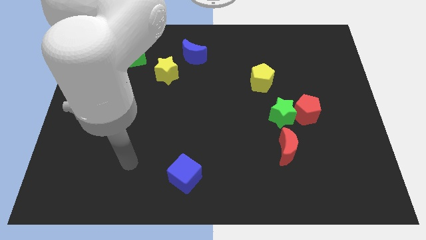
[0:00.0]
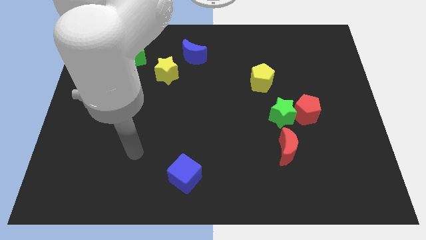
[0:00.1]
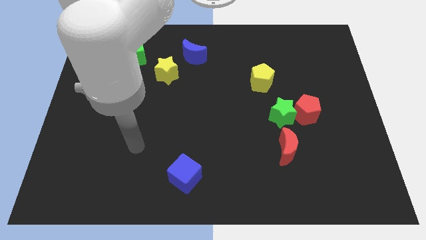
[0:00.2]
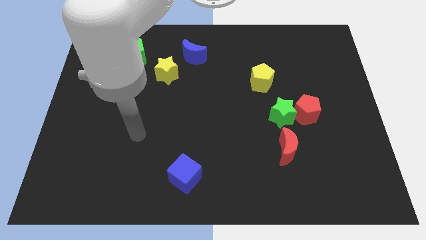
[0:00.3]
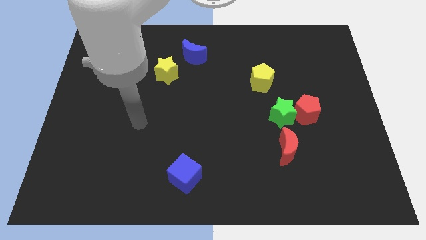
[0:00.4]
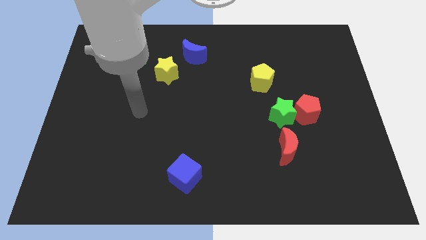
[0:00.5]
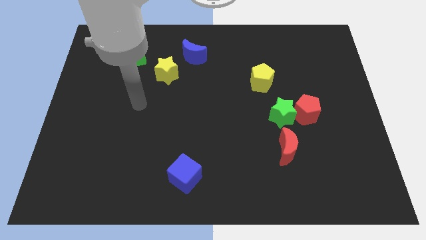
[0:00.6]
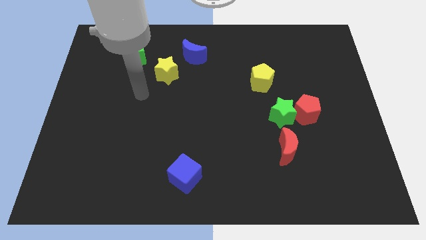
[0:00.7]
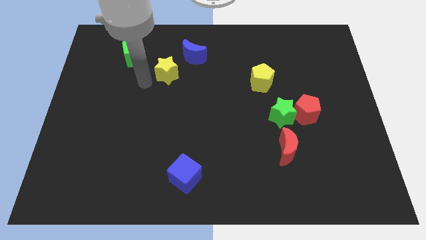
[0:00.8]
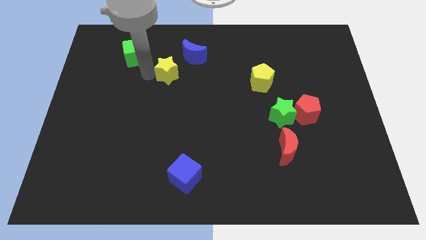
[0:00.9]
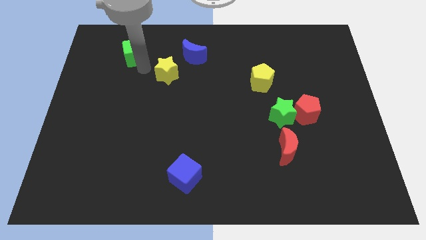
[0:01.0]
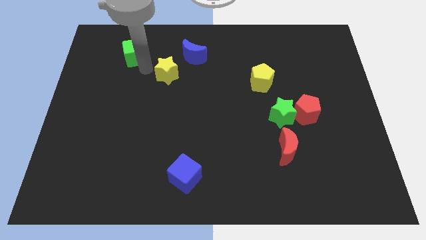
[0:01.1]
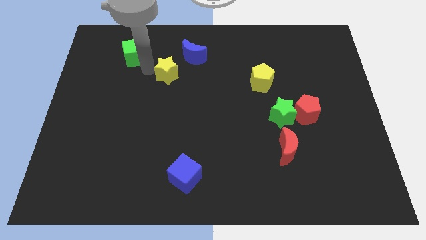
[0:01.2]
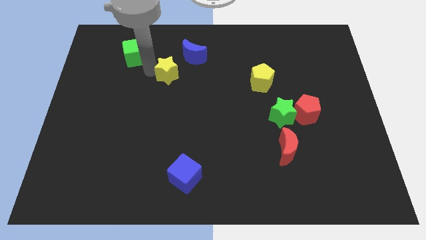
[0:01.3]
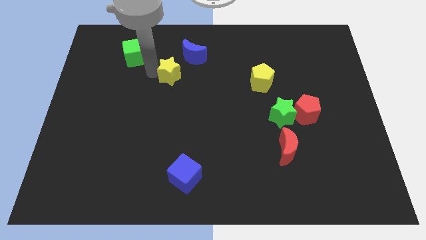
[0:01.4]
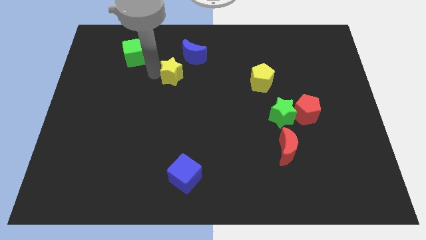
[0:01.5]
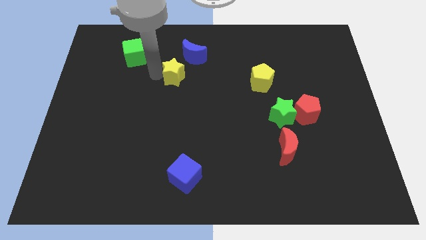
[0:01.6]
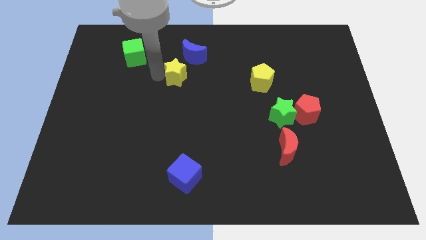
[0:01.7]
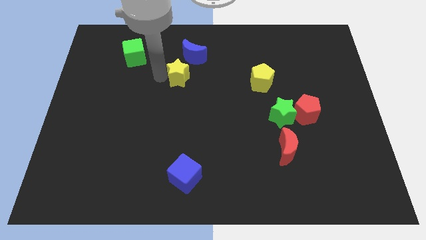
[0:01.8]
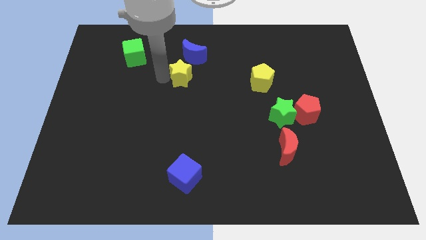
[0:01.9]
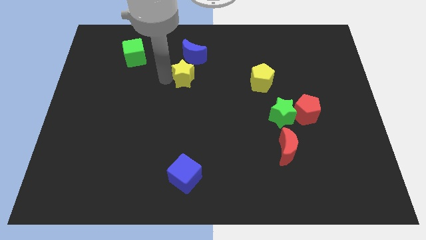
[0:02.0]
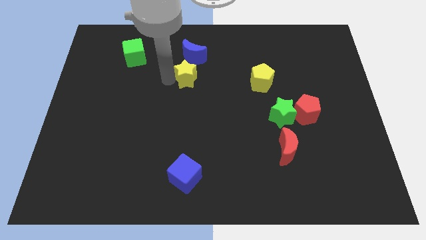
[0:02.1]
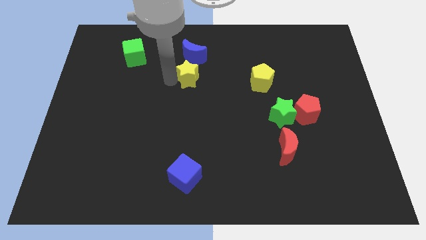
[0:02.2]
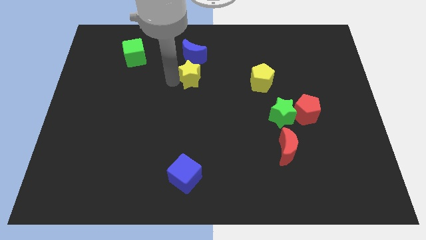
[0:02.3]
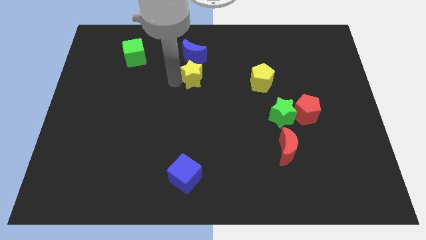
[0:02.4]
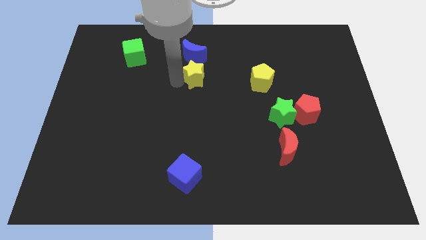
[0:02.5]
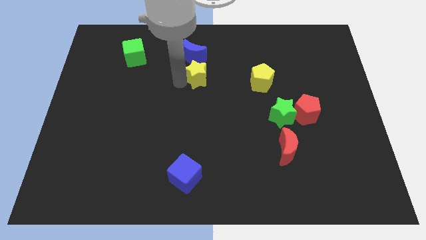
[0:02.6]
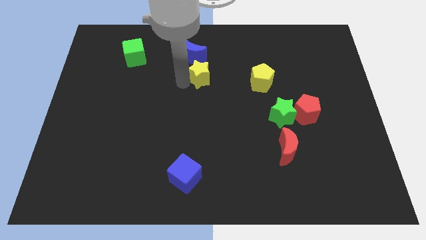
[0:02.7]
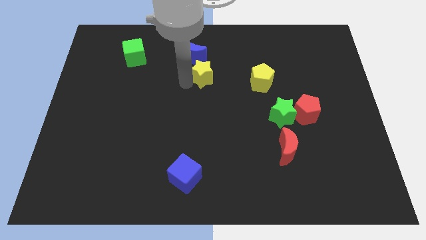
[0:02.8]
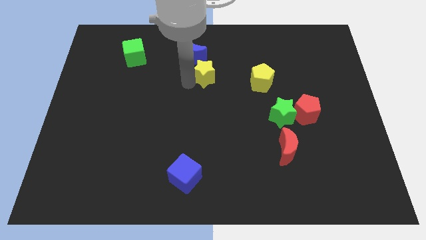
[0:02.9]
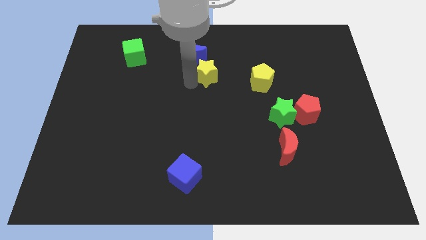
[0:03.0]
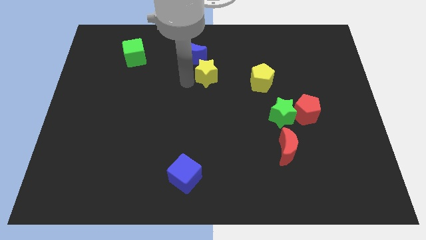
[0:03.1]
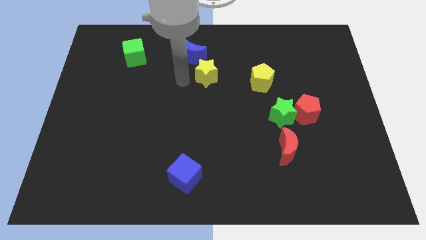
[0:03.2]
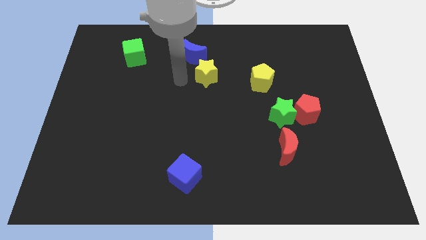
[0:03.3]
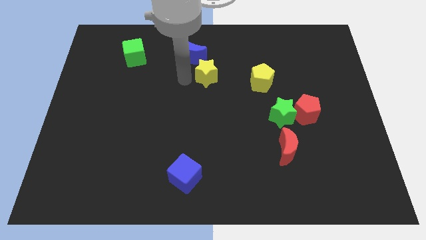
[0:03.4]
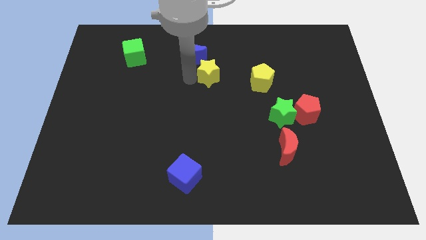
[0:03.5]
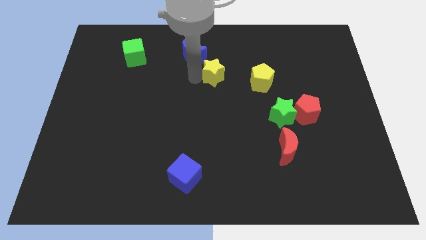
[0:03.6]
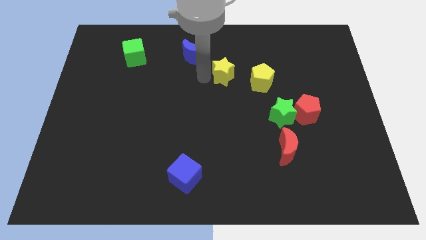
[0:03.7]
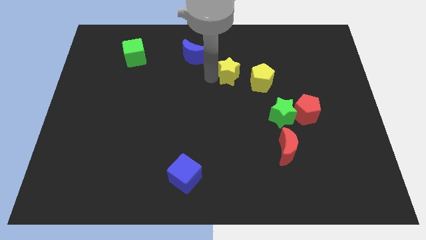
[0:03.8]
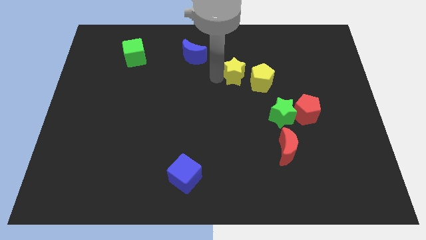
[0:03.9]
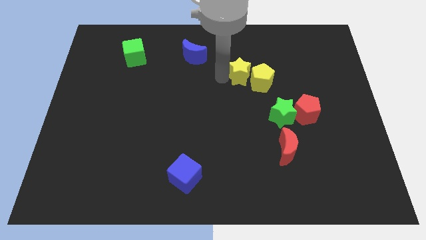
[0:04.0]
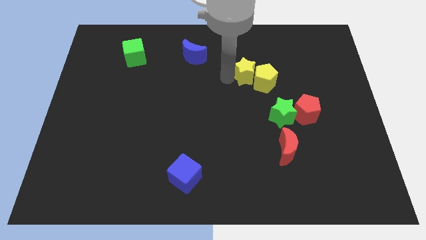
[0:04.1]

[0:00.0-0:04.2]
push the yellow star right

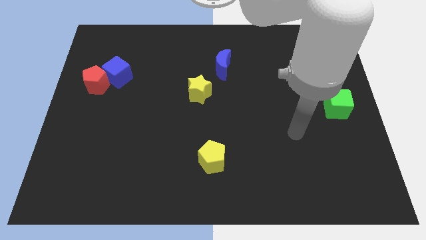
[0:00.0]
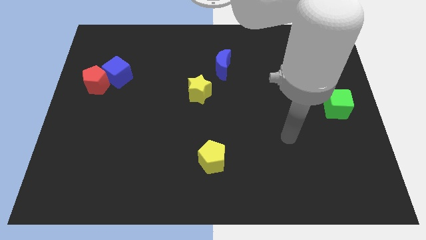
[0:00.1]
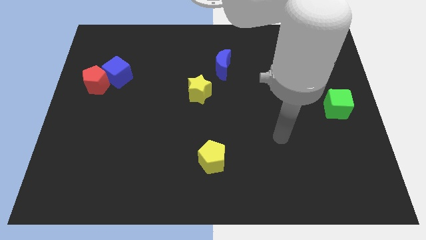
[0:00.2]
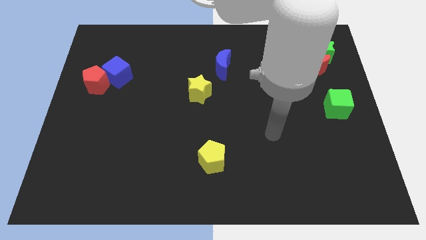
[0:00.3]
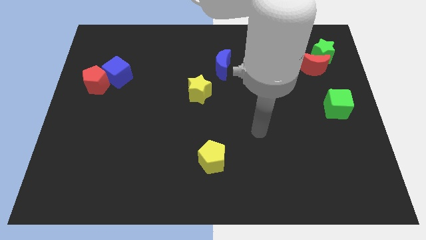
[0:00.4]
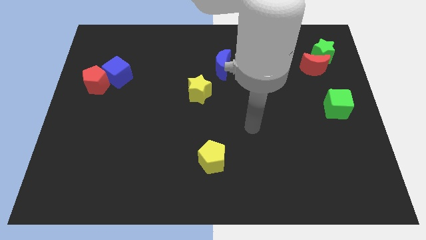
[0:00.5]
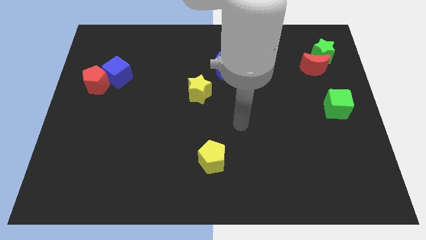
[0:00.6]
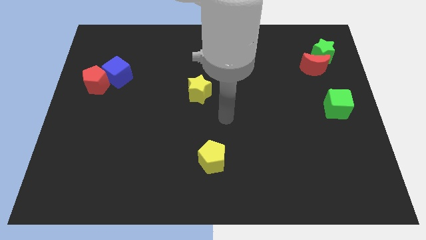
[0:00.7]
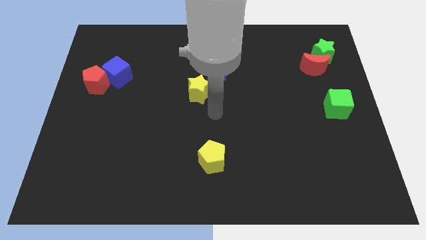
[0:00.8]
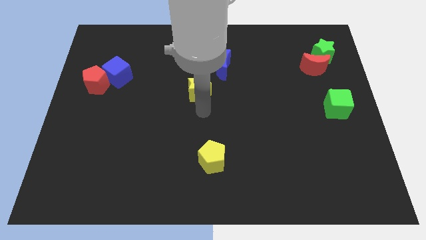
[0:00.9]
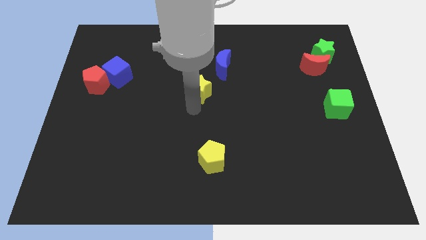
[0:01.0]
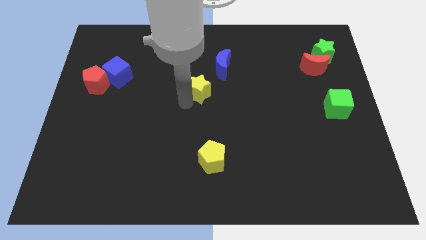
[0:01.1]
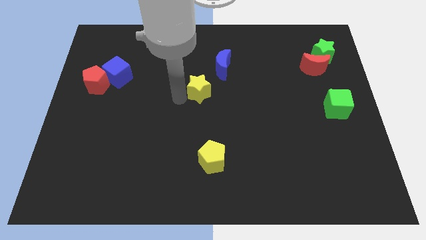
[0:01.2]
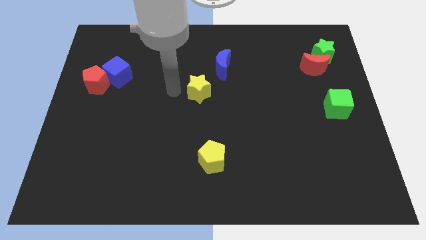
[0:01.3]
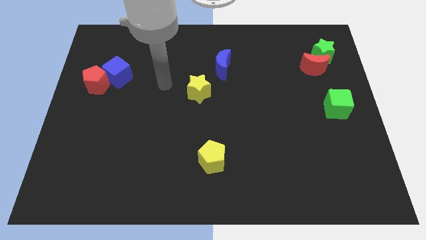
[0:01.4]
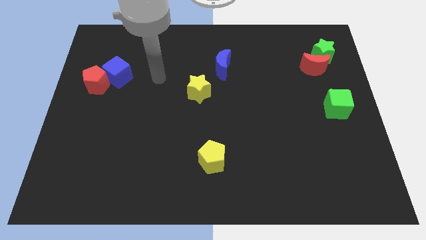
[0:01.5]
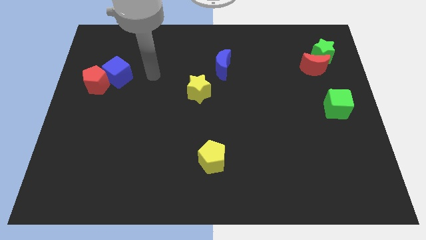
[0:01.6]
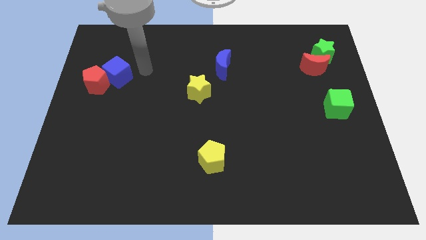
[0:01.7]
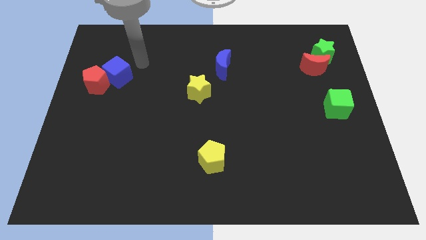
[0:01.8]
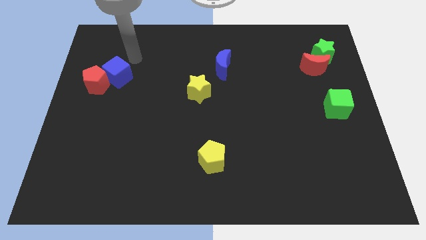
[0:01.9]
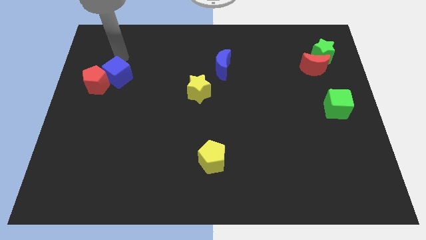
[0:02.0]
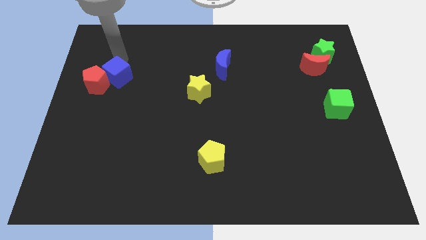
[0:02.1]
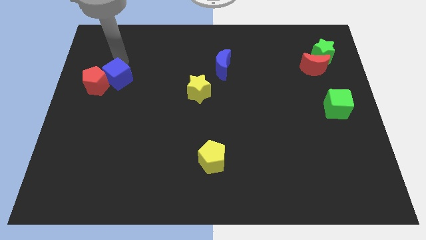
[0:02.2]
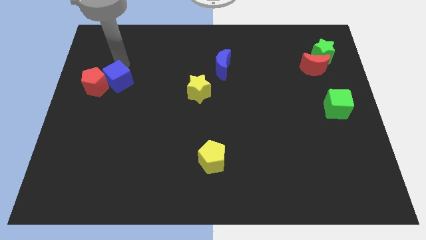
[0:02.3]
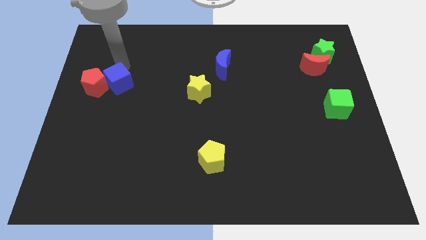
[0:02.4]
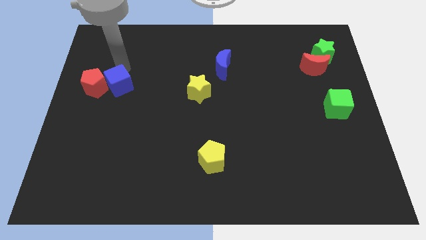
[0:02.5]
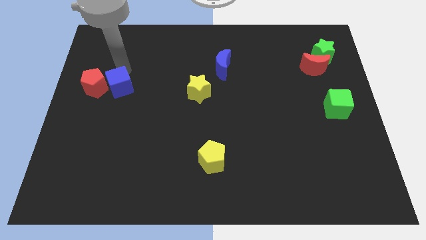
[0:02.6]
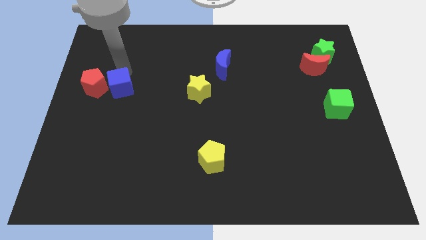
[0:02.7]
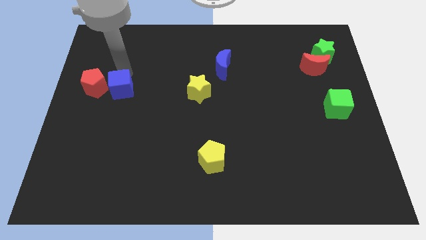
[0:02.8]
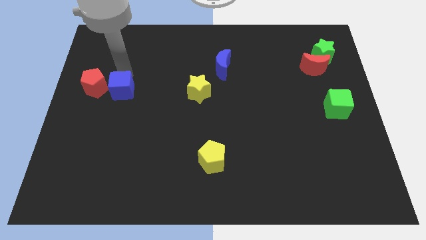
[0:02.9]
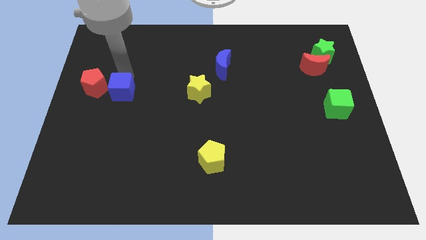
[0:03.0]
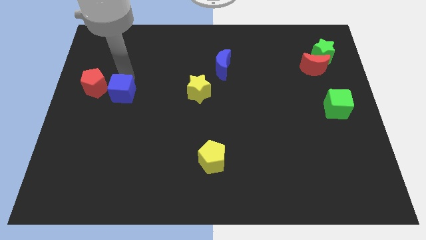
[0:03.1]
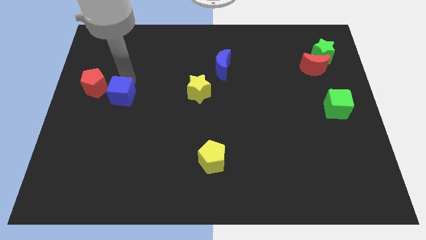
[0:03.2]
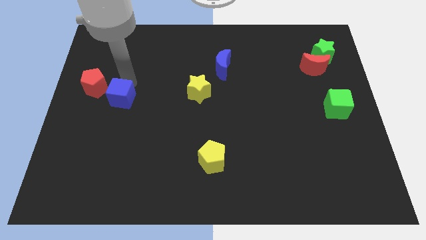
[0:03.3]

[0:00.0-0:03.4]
move the blue cube downwards a little bit

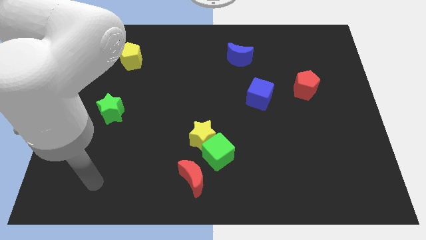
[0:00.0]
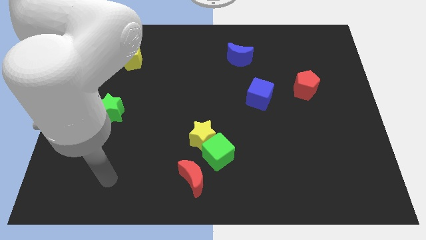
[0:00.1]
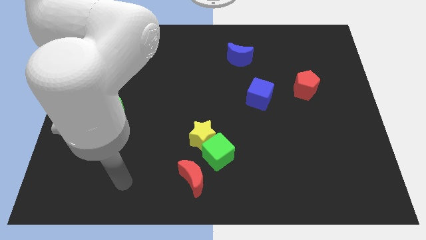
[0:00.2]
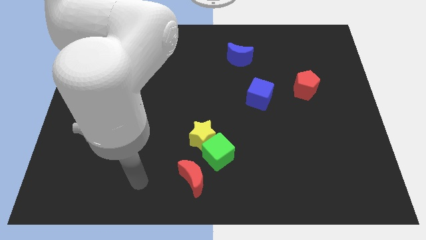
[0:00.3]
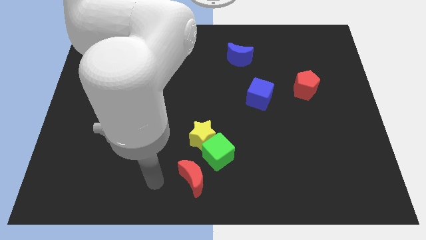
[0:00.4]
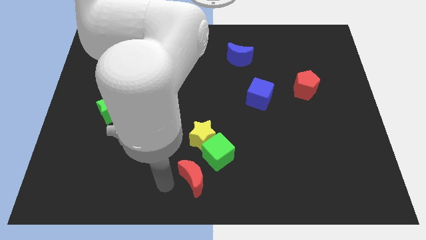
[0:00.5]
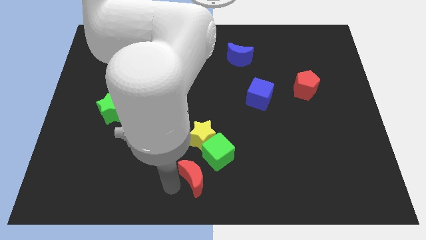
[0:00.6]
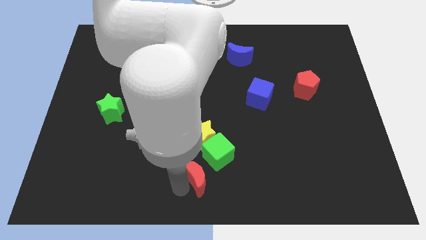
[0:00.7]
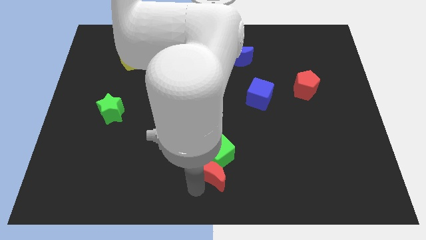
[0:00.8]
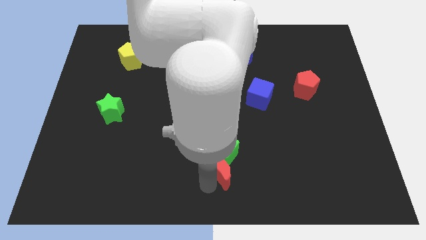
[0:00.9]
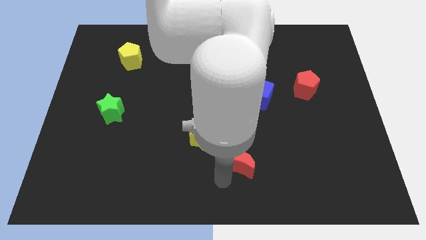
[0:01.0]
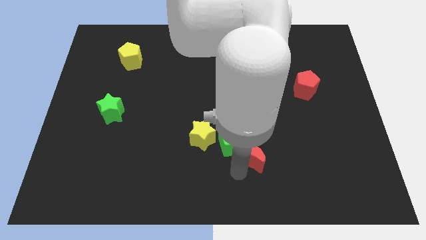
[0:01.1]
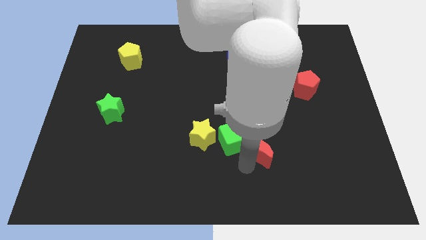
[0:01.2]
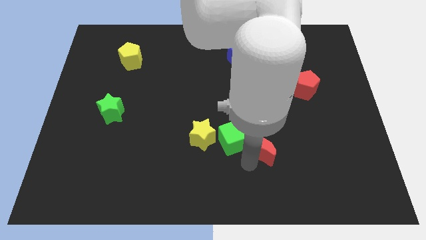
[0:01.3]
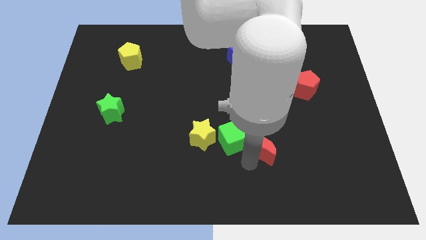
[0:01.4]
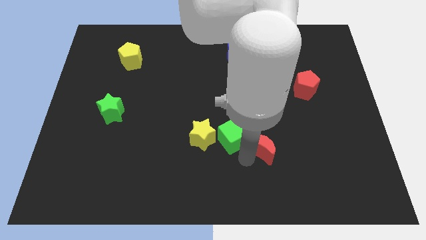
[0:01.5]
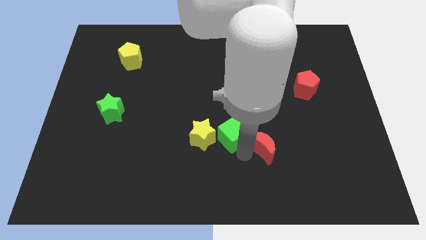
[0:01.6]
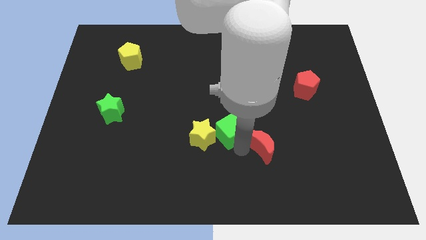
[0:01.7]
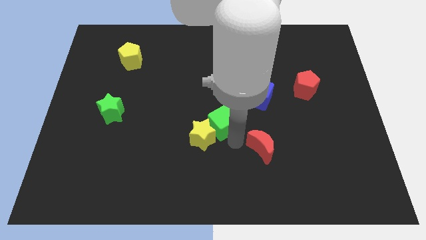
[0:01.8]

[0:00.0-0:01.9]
push the green cube a bit up
